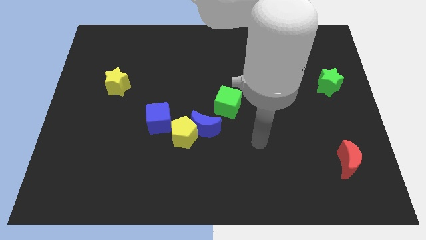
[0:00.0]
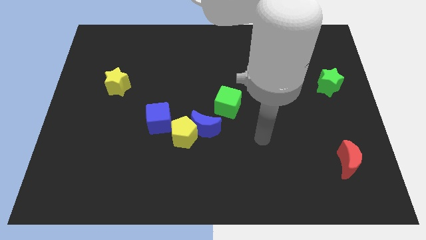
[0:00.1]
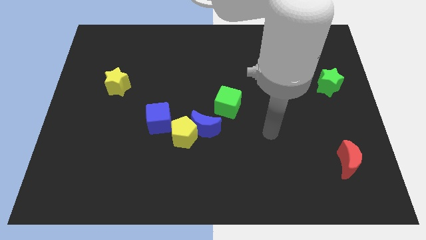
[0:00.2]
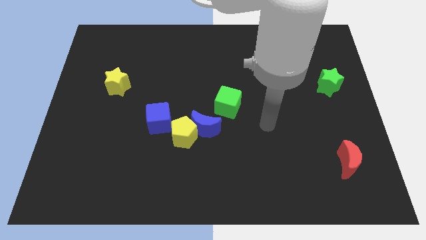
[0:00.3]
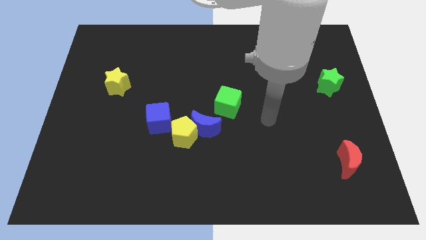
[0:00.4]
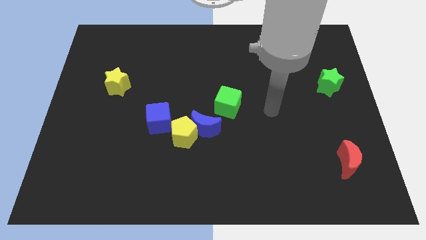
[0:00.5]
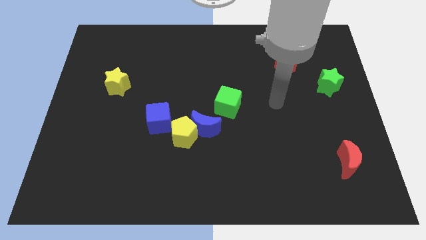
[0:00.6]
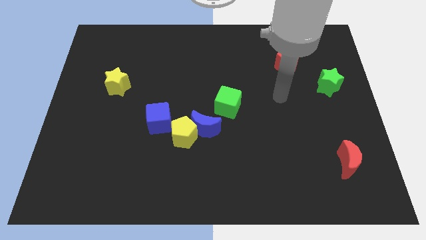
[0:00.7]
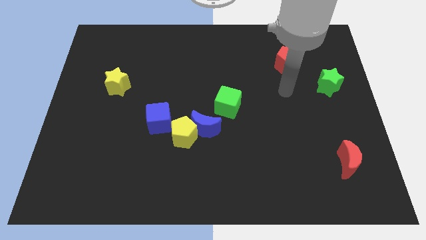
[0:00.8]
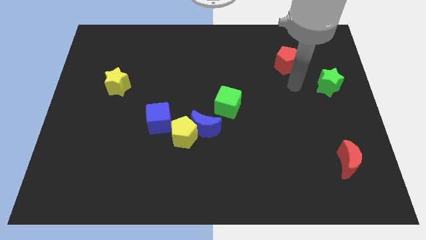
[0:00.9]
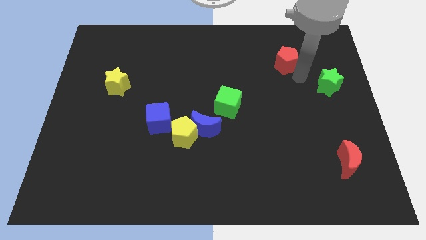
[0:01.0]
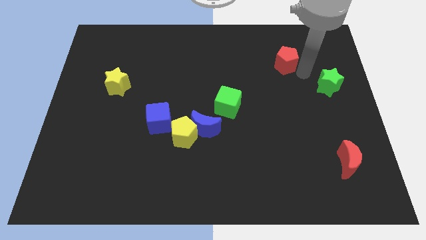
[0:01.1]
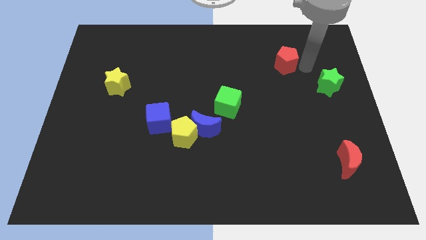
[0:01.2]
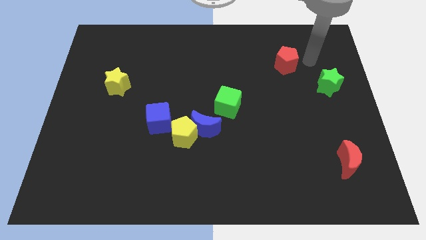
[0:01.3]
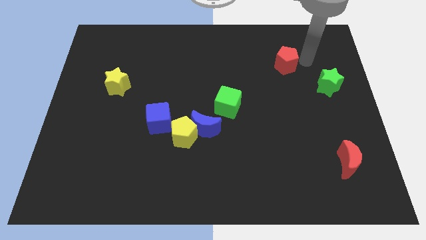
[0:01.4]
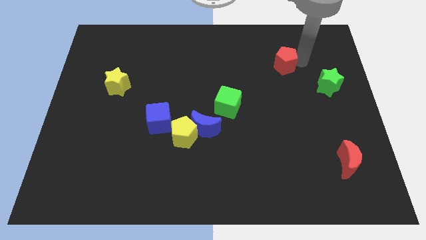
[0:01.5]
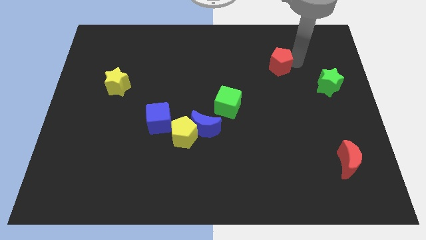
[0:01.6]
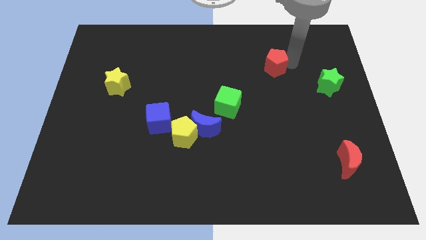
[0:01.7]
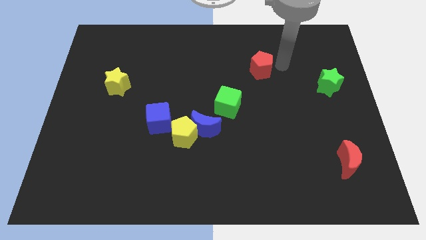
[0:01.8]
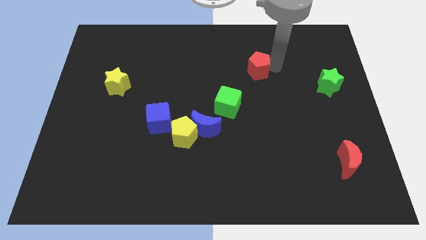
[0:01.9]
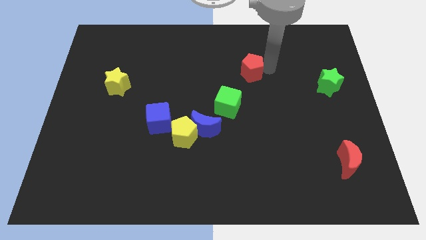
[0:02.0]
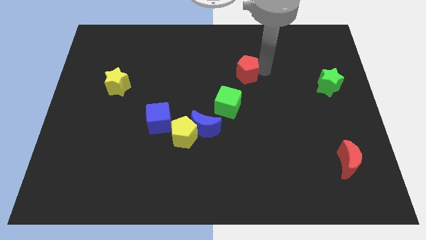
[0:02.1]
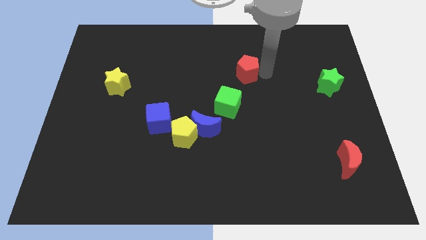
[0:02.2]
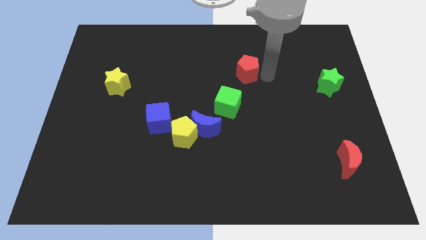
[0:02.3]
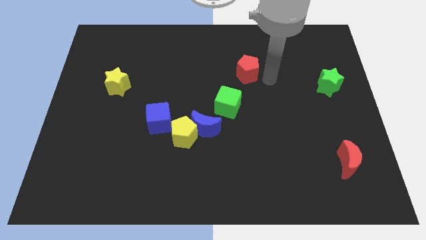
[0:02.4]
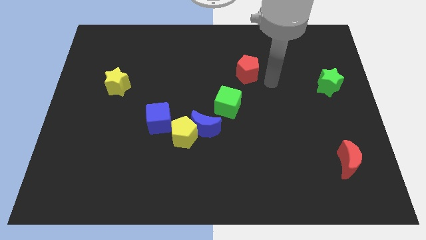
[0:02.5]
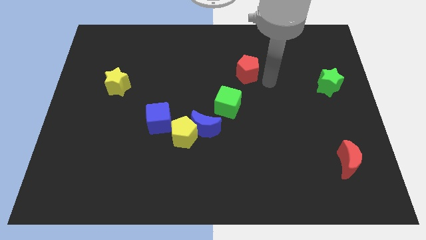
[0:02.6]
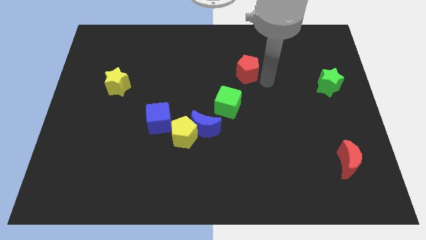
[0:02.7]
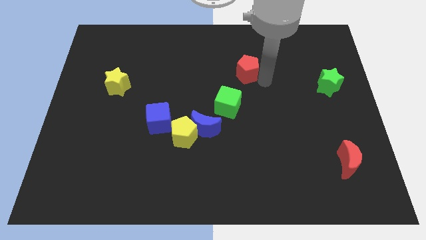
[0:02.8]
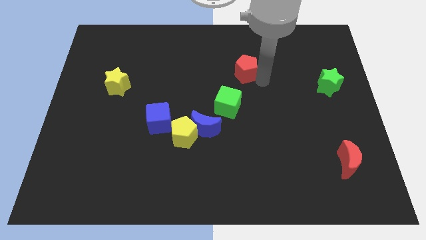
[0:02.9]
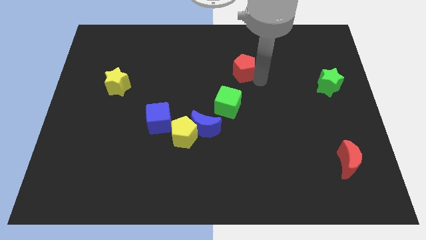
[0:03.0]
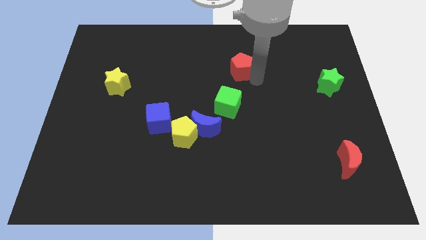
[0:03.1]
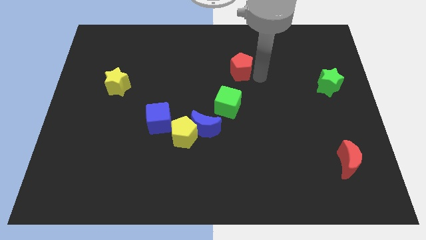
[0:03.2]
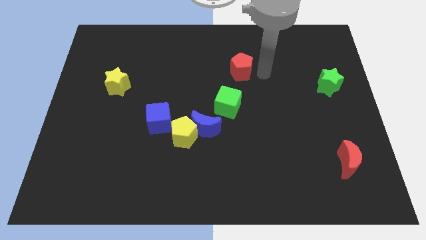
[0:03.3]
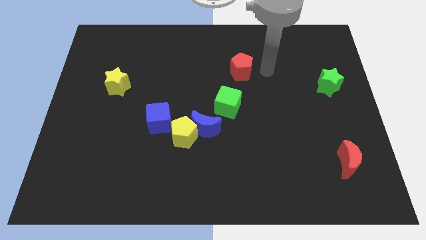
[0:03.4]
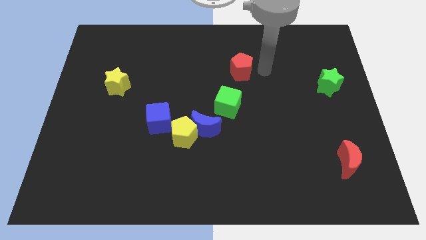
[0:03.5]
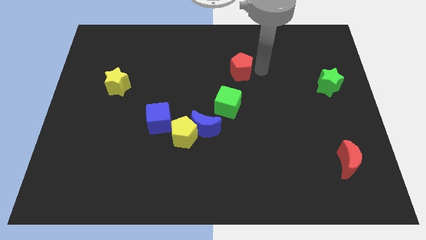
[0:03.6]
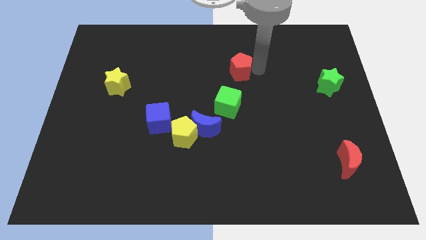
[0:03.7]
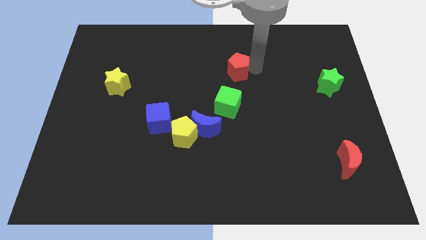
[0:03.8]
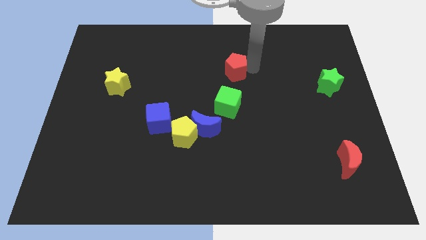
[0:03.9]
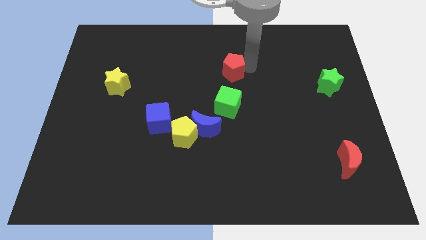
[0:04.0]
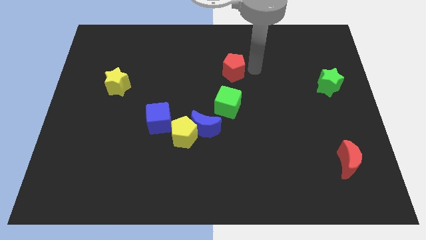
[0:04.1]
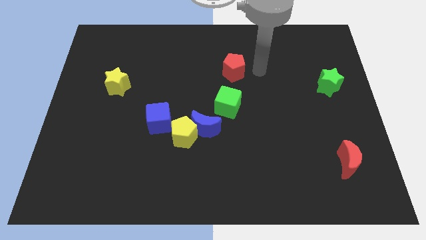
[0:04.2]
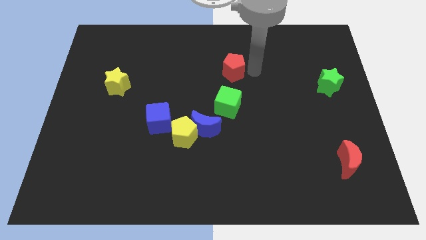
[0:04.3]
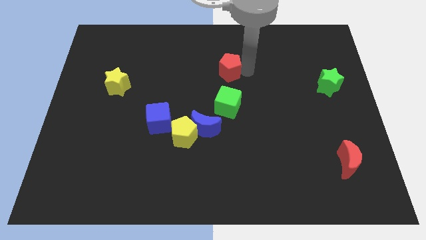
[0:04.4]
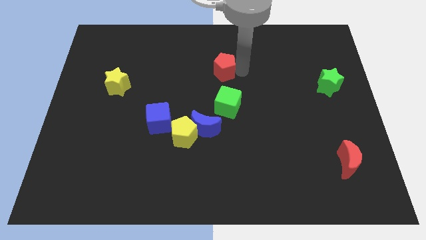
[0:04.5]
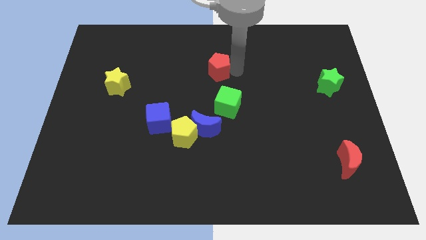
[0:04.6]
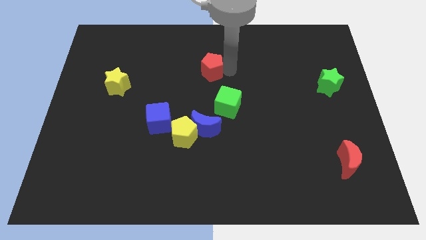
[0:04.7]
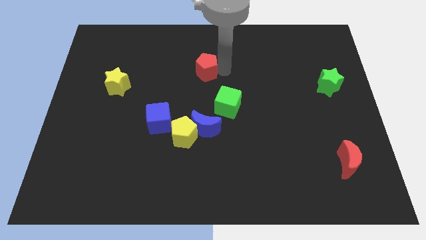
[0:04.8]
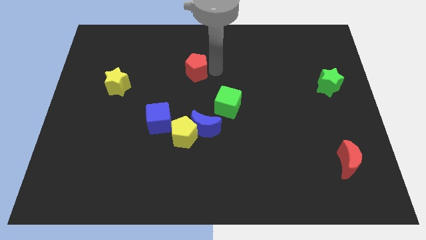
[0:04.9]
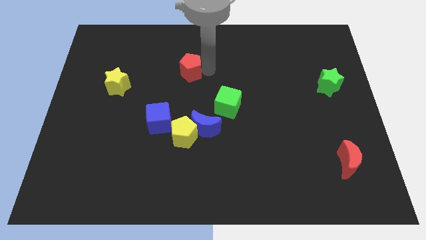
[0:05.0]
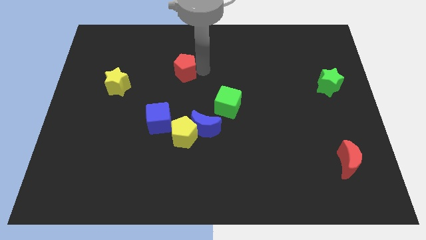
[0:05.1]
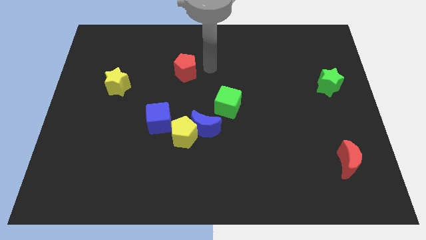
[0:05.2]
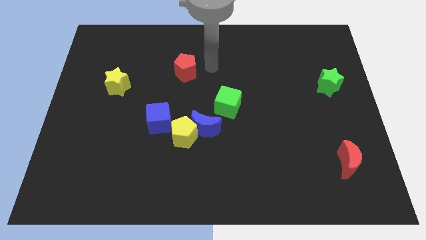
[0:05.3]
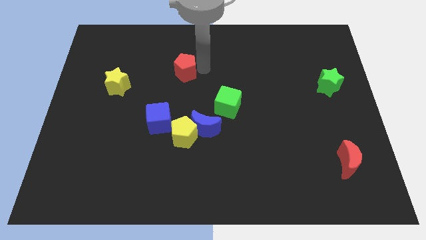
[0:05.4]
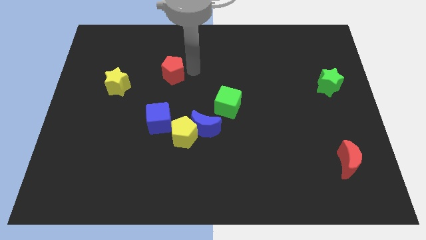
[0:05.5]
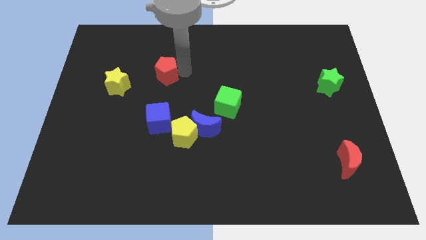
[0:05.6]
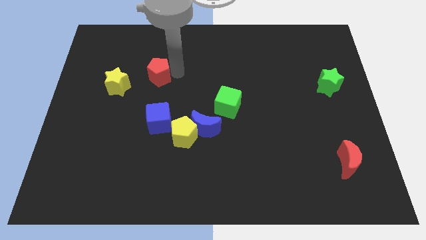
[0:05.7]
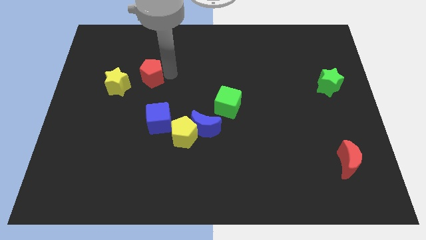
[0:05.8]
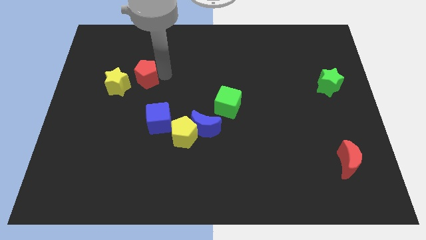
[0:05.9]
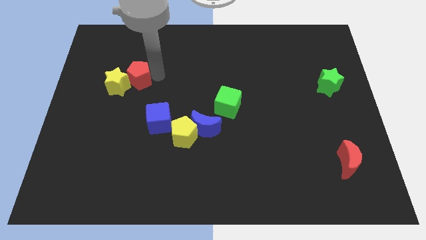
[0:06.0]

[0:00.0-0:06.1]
move the red pentagon to the yellow star

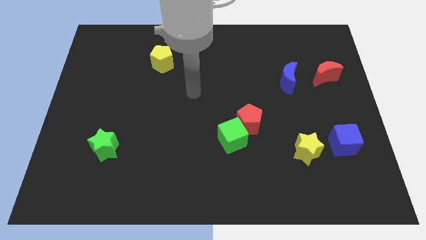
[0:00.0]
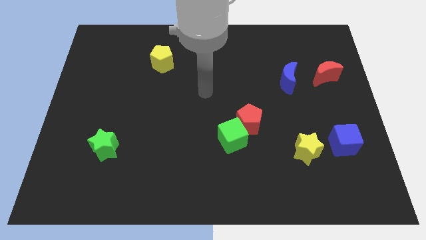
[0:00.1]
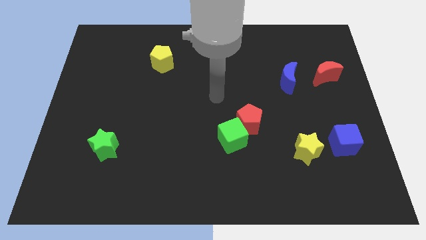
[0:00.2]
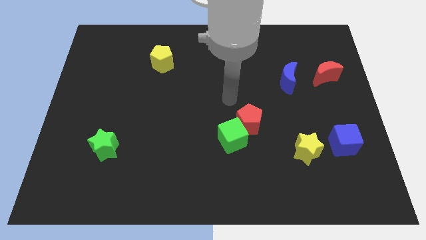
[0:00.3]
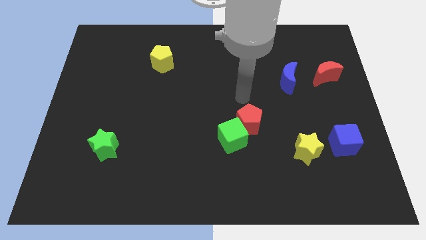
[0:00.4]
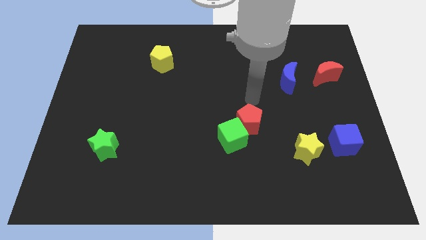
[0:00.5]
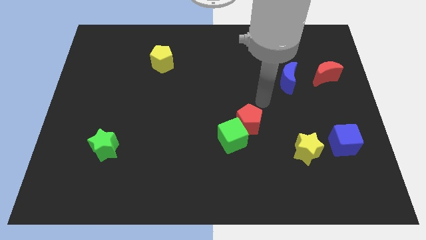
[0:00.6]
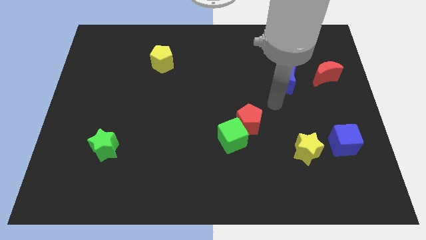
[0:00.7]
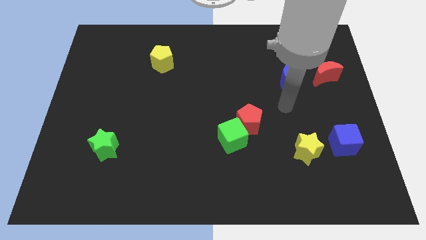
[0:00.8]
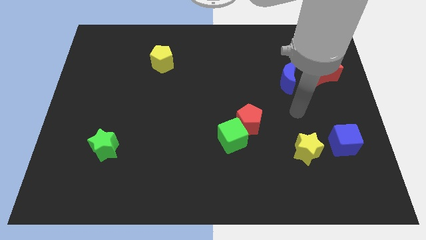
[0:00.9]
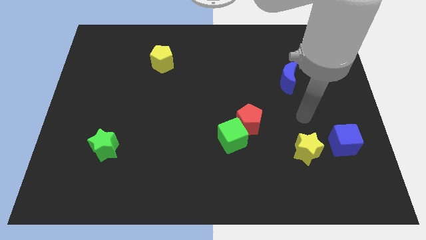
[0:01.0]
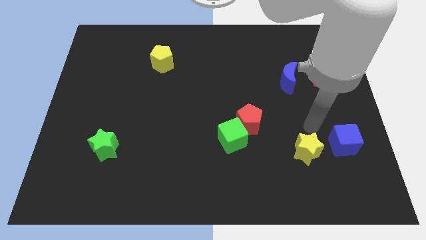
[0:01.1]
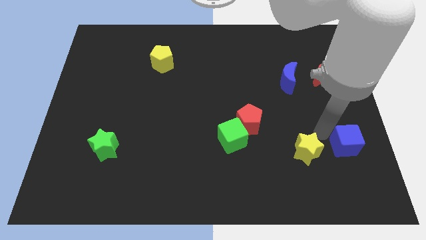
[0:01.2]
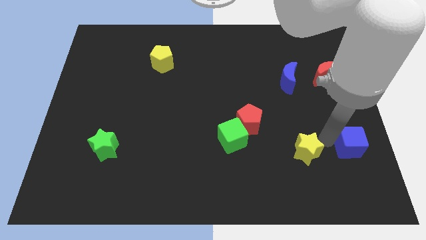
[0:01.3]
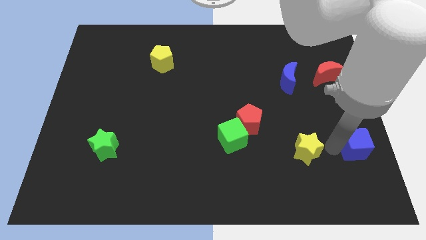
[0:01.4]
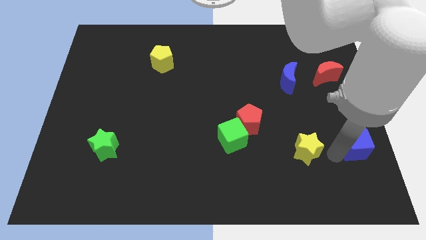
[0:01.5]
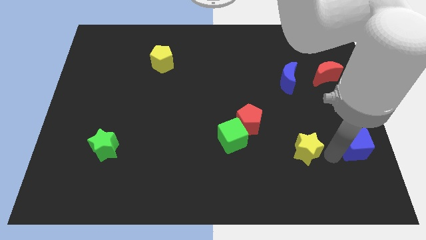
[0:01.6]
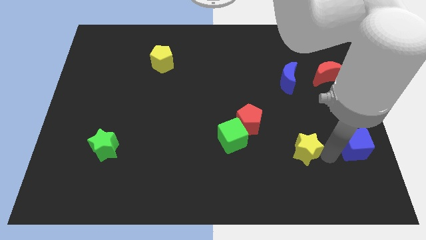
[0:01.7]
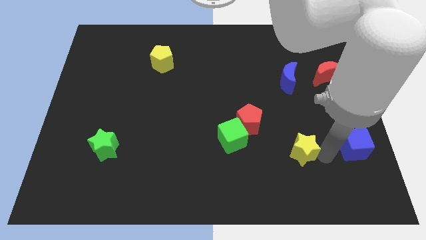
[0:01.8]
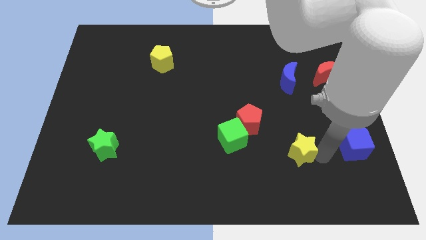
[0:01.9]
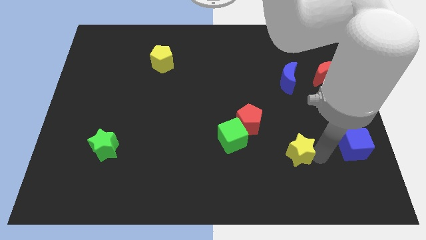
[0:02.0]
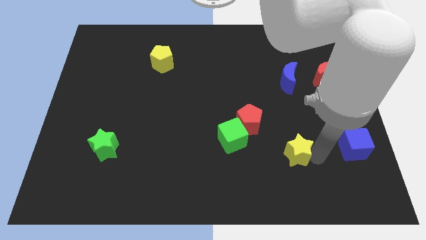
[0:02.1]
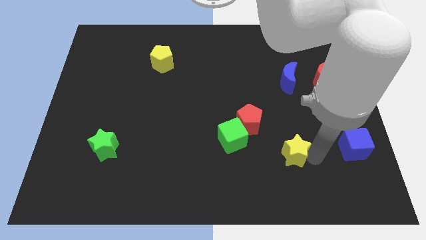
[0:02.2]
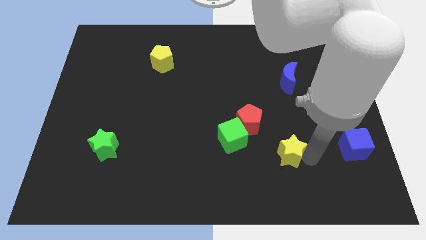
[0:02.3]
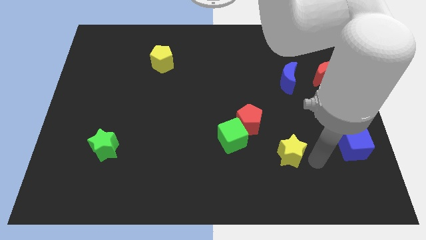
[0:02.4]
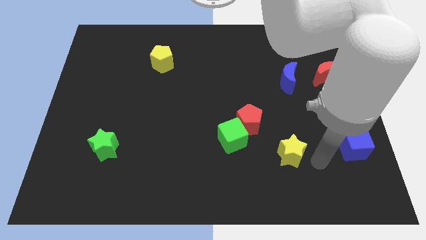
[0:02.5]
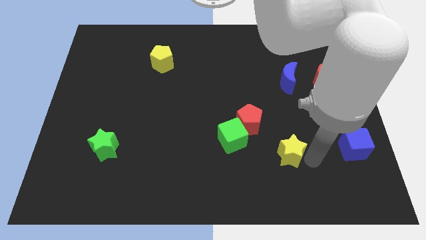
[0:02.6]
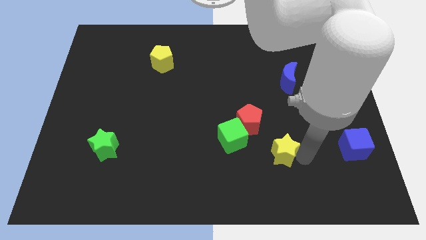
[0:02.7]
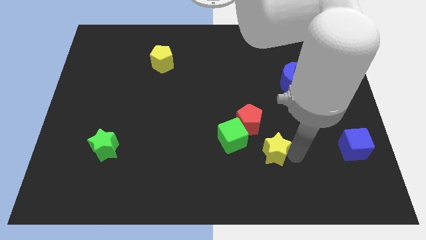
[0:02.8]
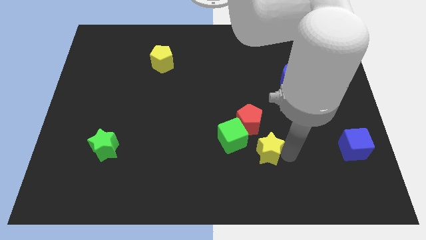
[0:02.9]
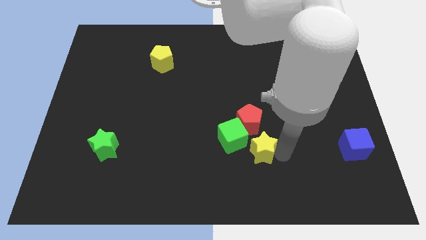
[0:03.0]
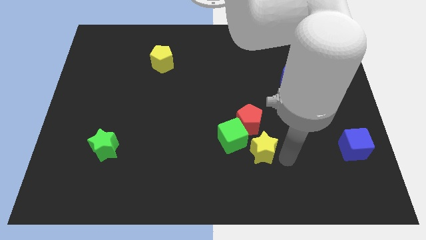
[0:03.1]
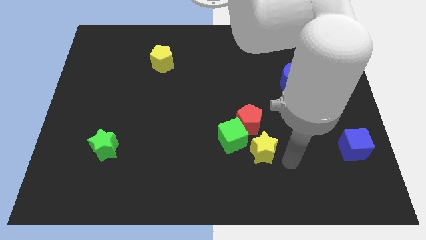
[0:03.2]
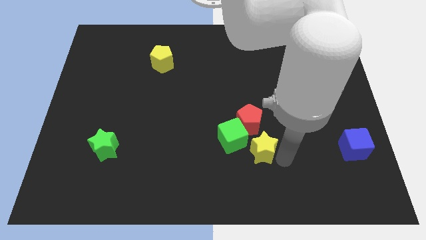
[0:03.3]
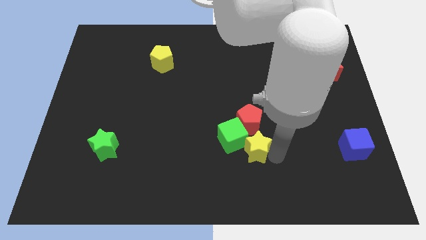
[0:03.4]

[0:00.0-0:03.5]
push the yellow star to the green cube
